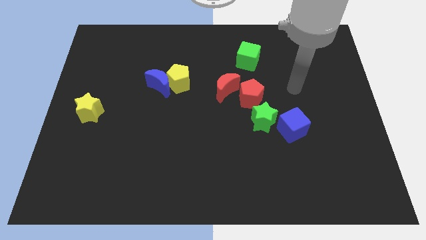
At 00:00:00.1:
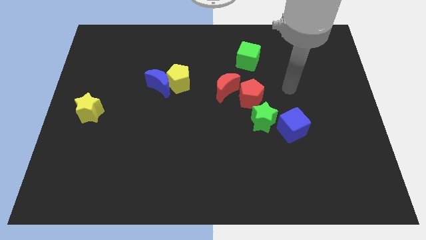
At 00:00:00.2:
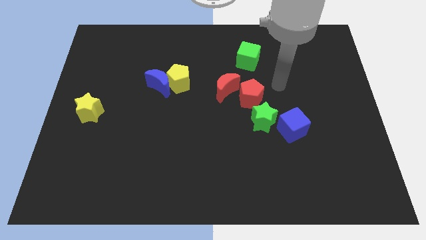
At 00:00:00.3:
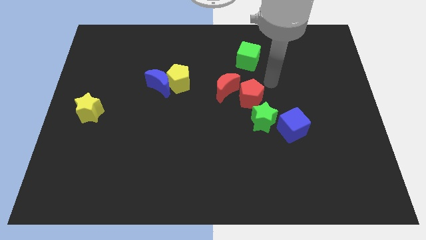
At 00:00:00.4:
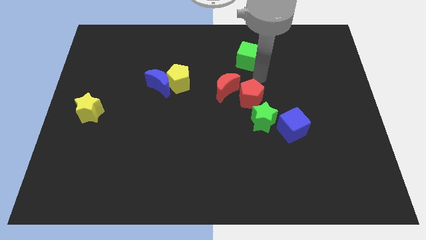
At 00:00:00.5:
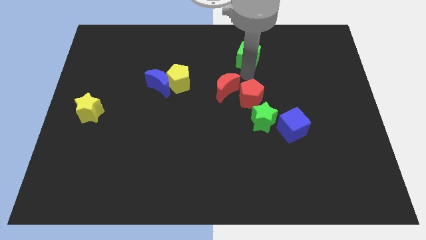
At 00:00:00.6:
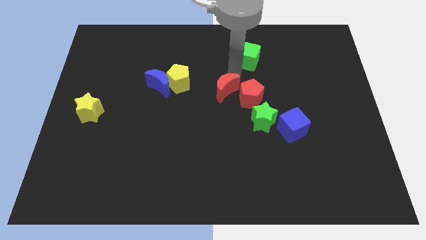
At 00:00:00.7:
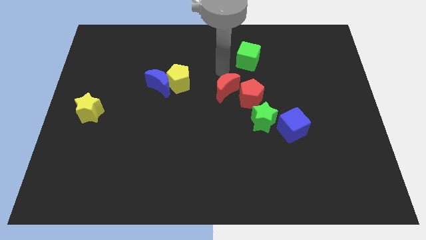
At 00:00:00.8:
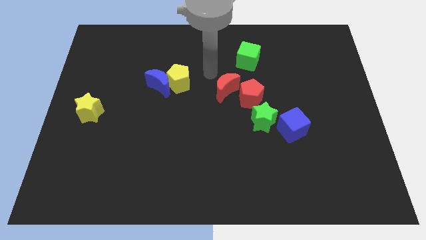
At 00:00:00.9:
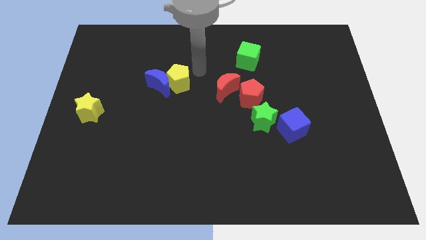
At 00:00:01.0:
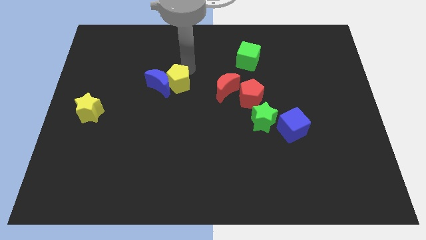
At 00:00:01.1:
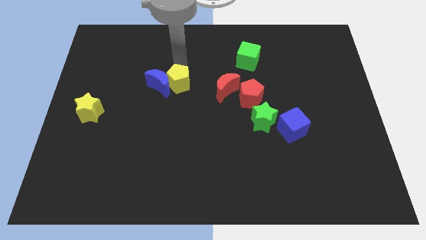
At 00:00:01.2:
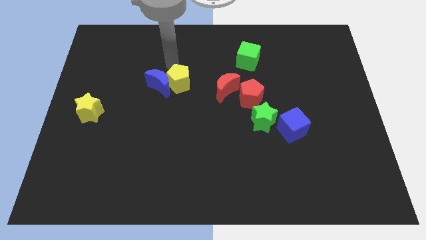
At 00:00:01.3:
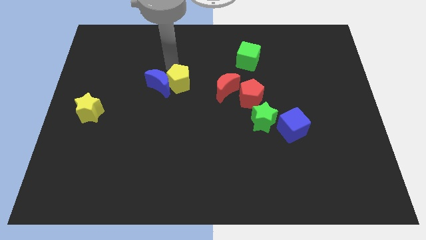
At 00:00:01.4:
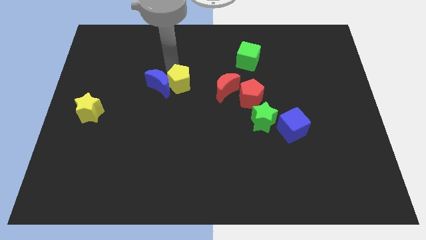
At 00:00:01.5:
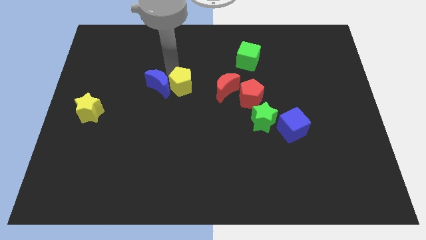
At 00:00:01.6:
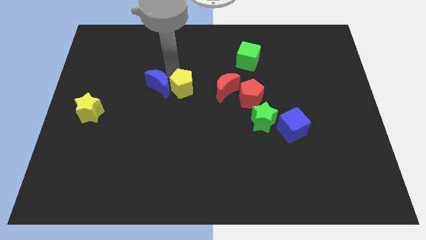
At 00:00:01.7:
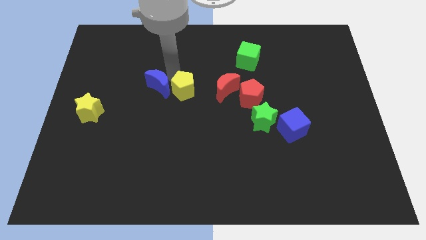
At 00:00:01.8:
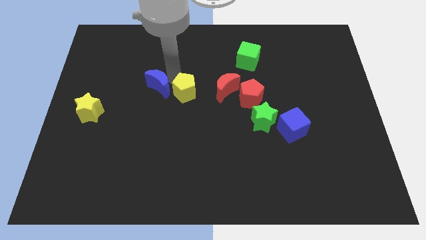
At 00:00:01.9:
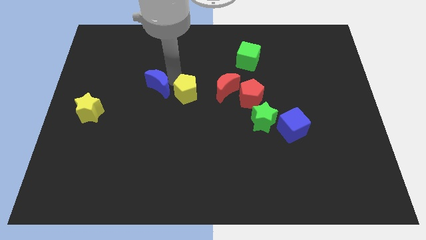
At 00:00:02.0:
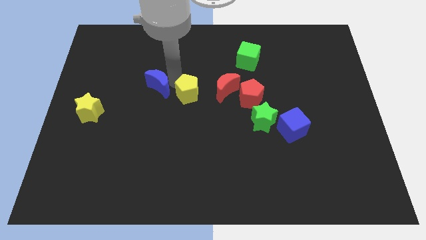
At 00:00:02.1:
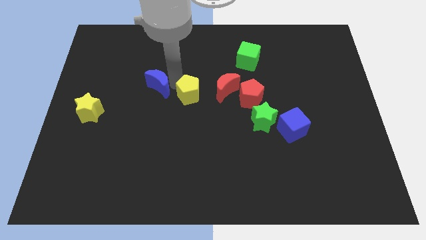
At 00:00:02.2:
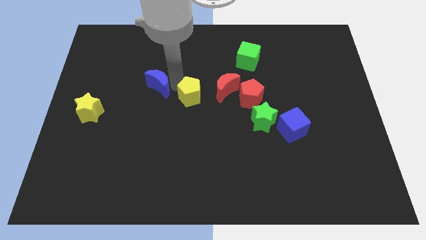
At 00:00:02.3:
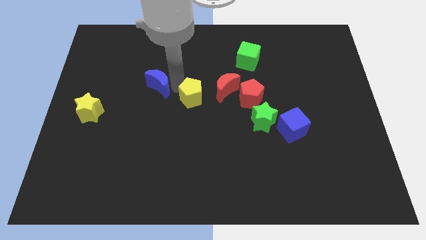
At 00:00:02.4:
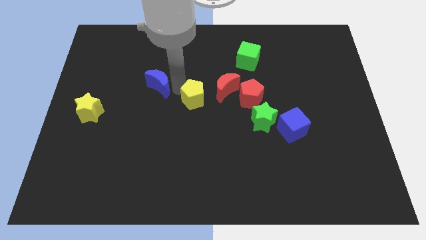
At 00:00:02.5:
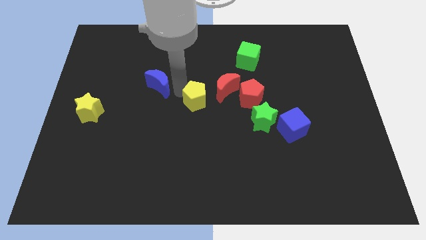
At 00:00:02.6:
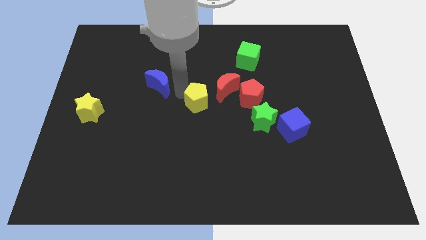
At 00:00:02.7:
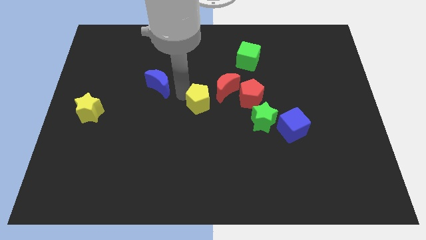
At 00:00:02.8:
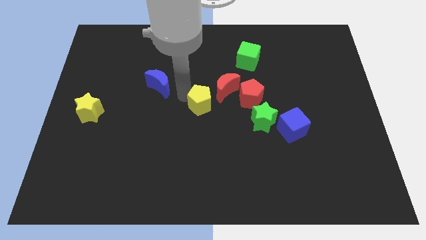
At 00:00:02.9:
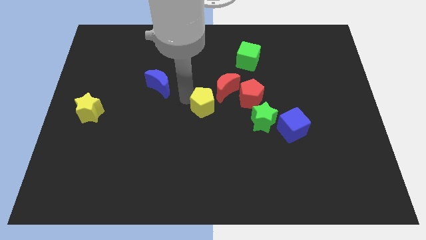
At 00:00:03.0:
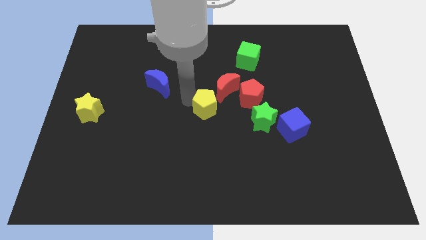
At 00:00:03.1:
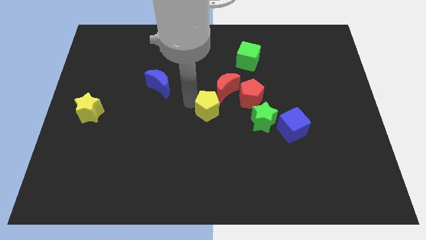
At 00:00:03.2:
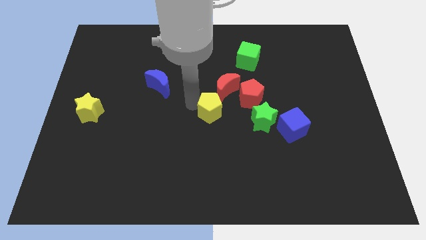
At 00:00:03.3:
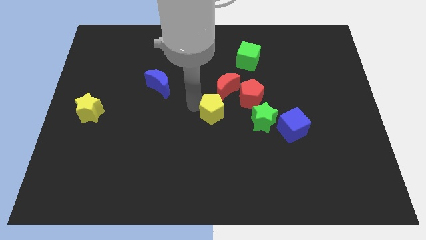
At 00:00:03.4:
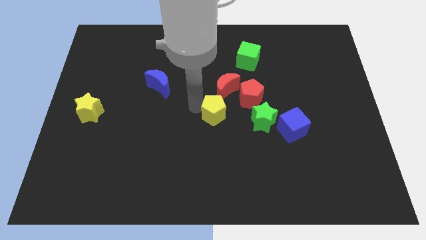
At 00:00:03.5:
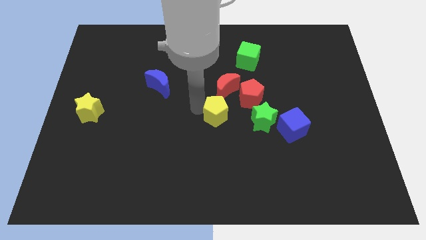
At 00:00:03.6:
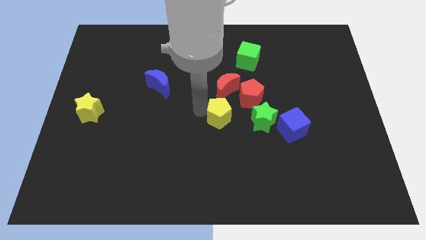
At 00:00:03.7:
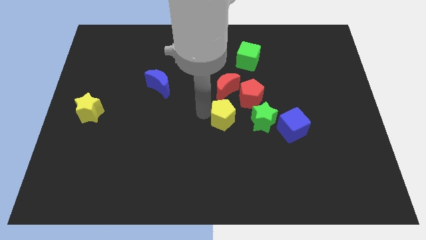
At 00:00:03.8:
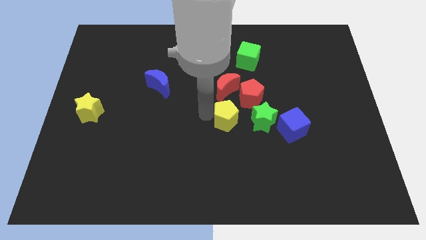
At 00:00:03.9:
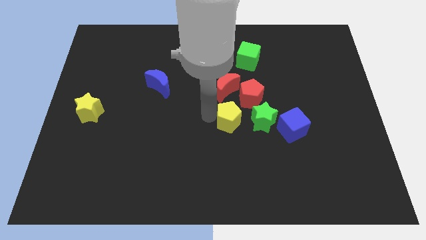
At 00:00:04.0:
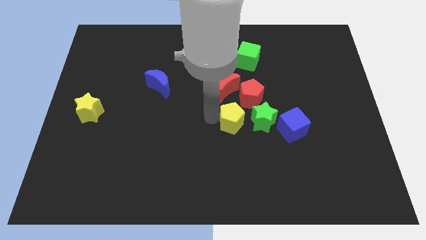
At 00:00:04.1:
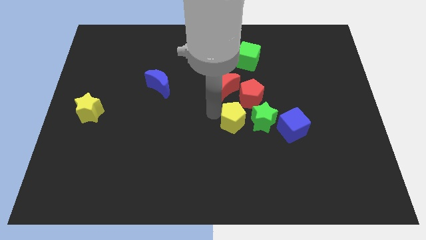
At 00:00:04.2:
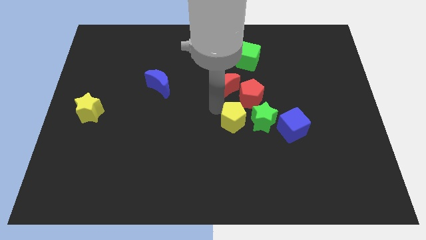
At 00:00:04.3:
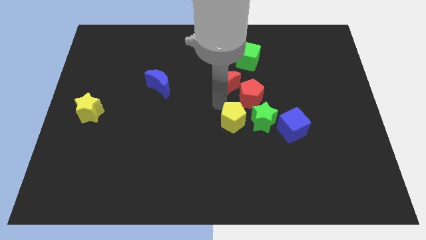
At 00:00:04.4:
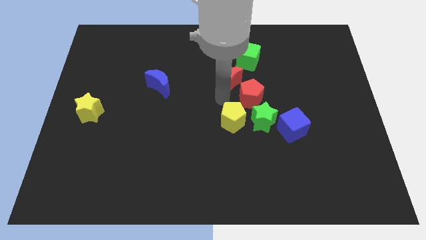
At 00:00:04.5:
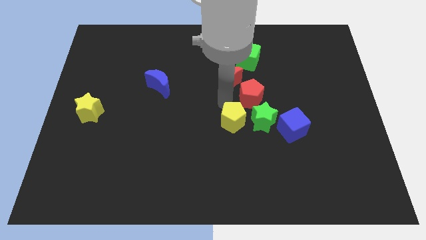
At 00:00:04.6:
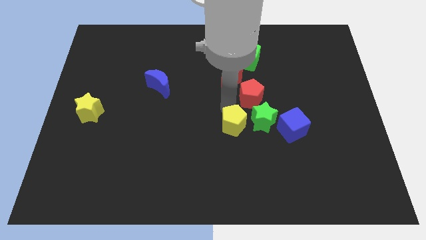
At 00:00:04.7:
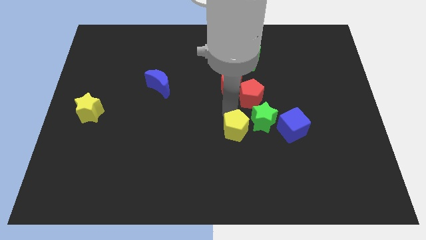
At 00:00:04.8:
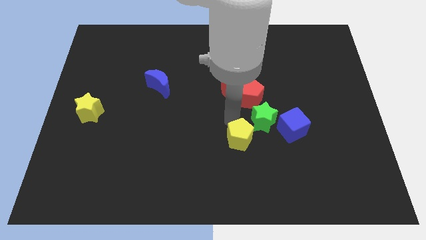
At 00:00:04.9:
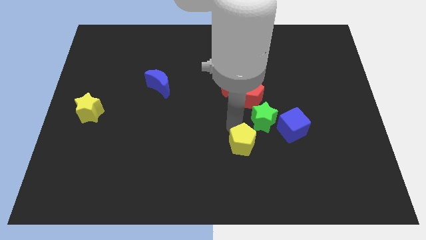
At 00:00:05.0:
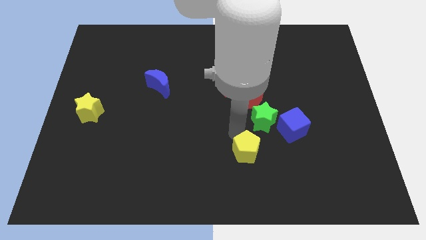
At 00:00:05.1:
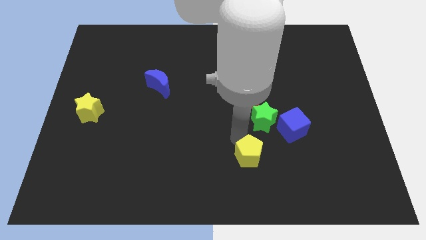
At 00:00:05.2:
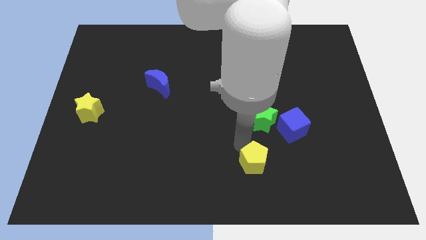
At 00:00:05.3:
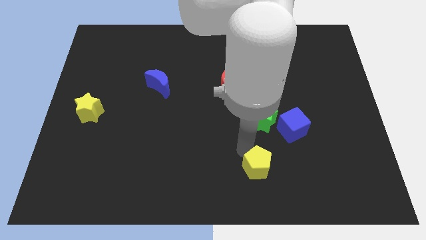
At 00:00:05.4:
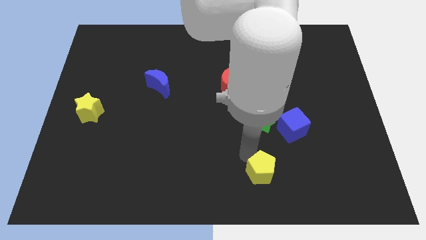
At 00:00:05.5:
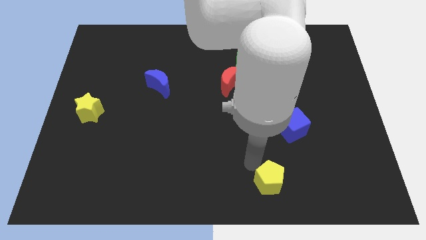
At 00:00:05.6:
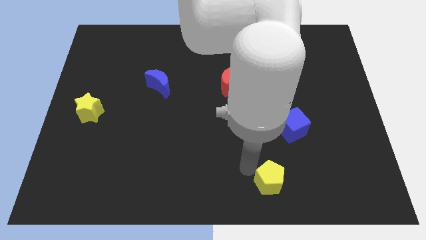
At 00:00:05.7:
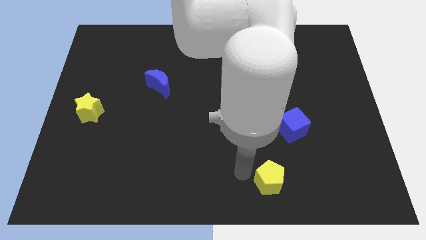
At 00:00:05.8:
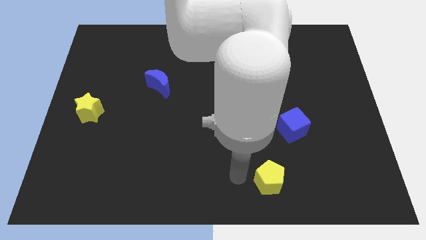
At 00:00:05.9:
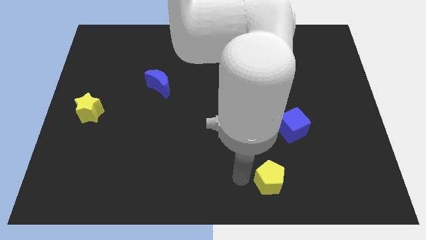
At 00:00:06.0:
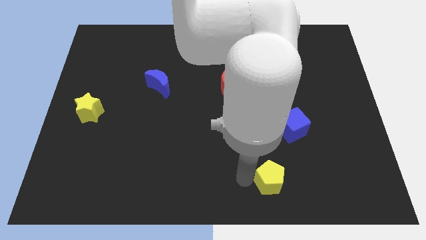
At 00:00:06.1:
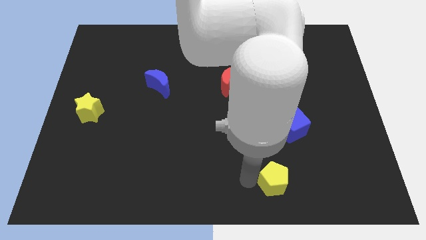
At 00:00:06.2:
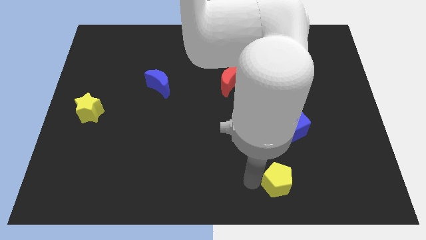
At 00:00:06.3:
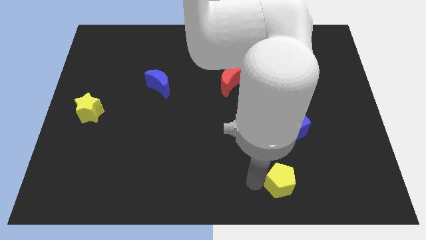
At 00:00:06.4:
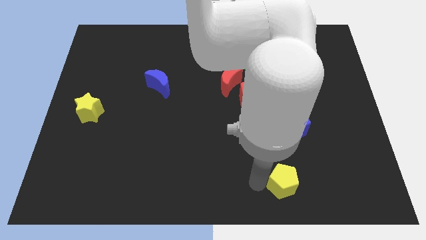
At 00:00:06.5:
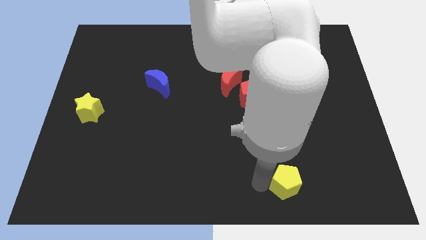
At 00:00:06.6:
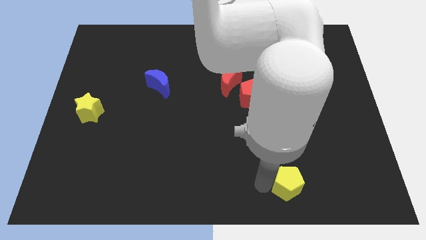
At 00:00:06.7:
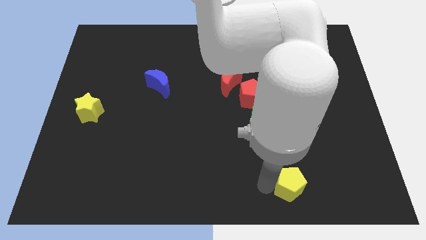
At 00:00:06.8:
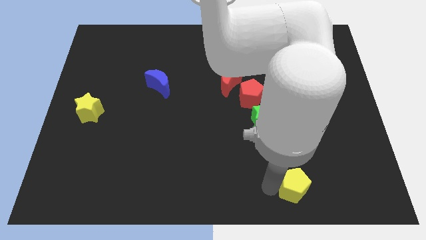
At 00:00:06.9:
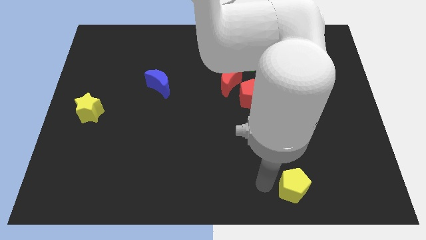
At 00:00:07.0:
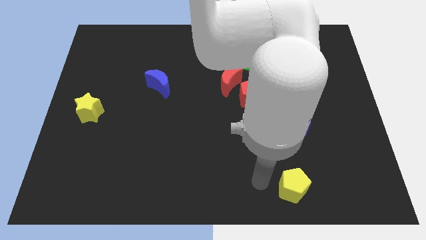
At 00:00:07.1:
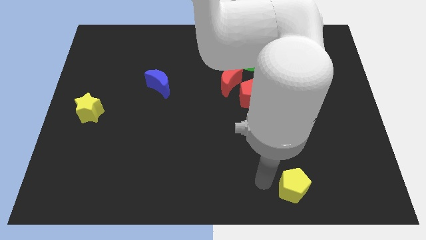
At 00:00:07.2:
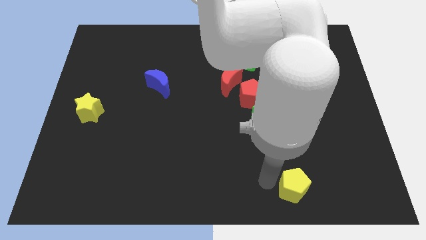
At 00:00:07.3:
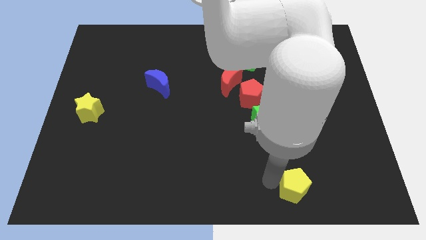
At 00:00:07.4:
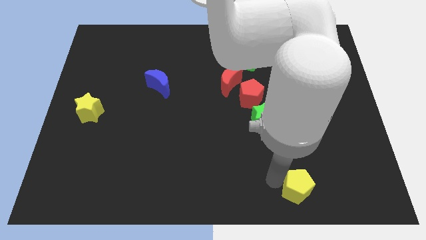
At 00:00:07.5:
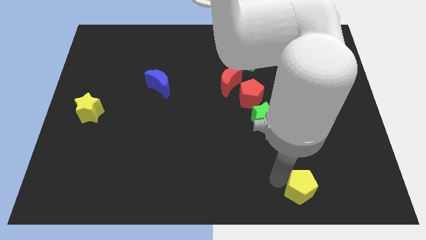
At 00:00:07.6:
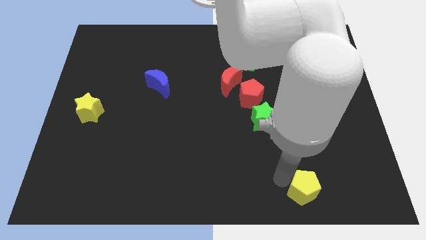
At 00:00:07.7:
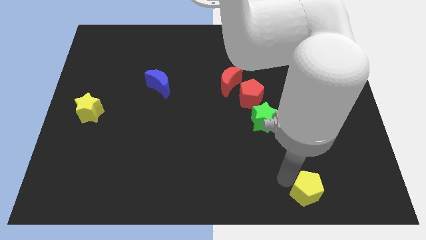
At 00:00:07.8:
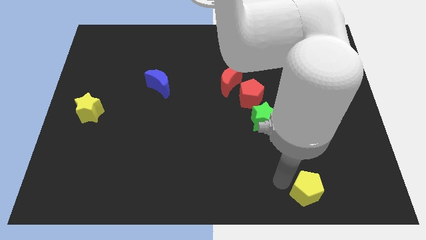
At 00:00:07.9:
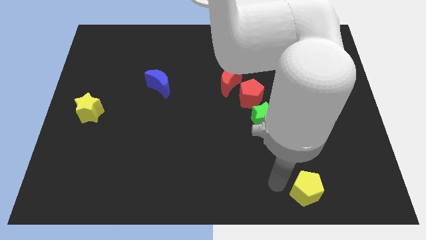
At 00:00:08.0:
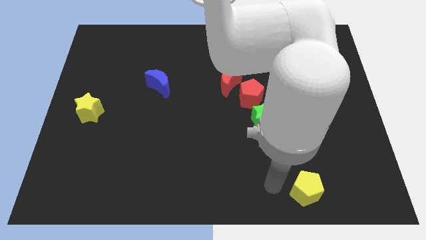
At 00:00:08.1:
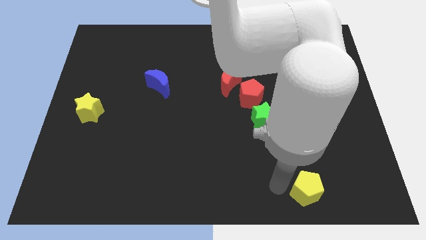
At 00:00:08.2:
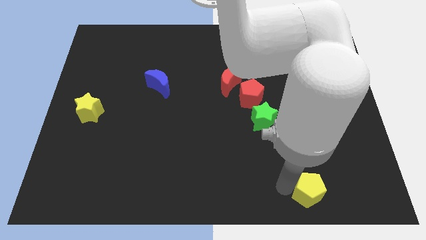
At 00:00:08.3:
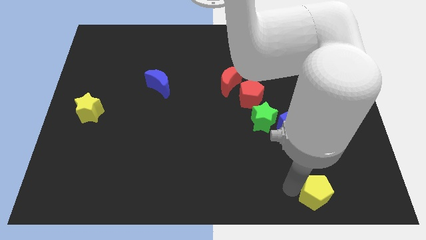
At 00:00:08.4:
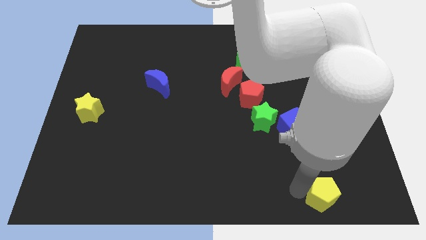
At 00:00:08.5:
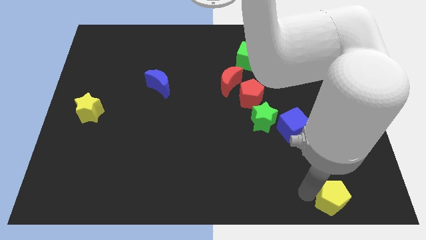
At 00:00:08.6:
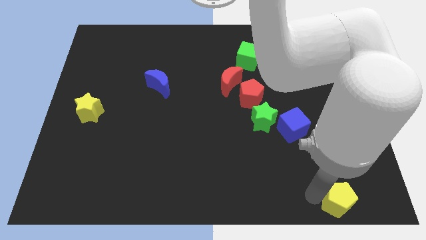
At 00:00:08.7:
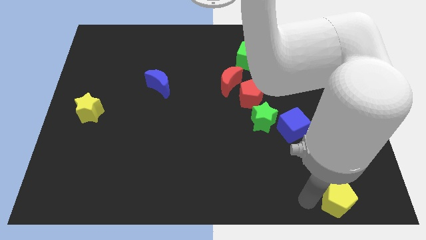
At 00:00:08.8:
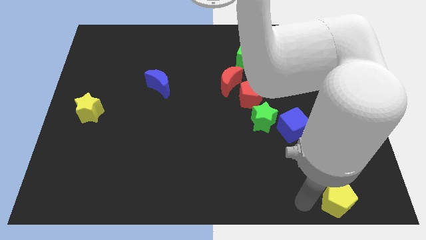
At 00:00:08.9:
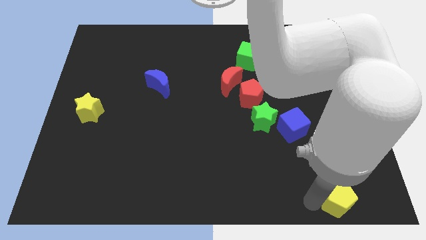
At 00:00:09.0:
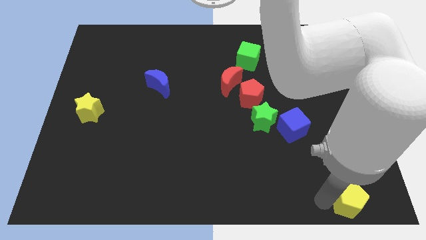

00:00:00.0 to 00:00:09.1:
push the yellow pentagon to the bottom right corner
